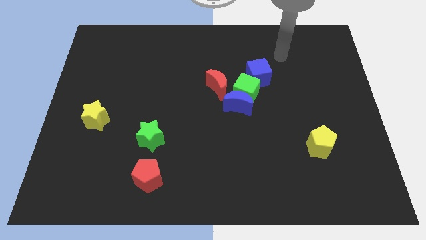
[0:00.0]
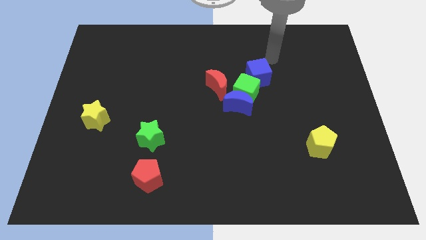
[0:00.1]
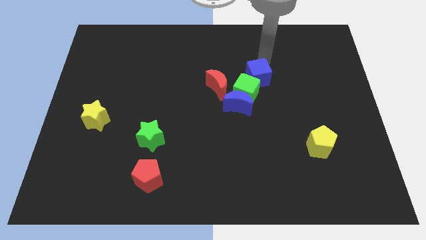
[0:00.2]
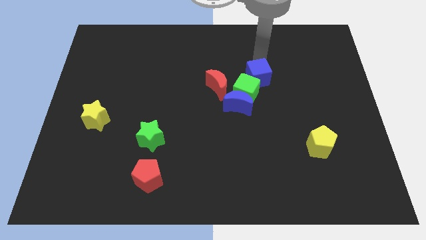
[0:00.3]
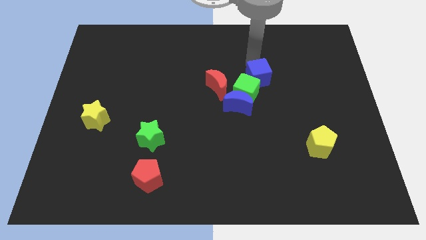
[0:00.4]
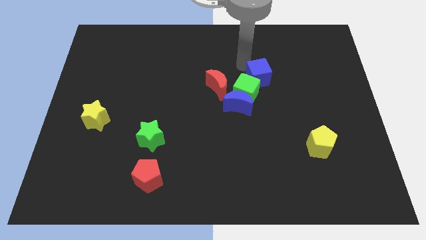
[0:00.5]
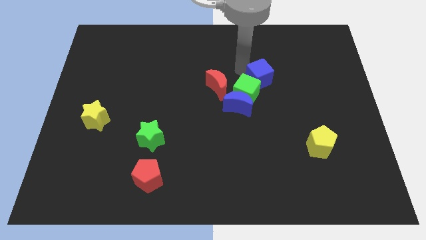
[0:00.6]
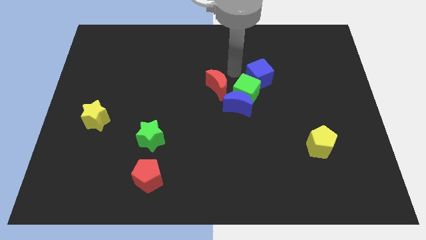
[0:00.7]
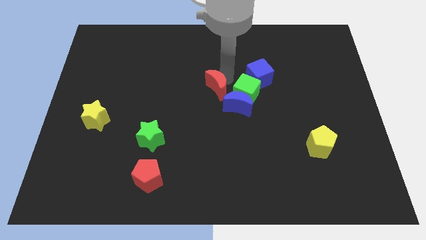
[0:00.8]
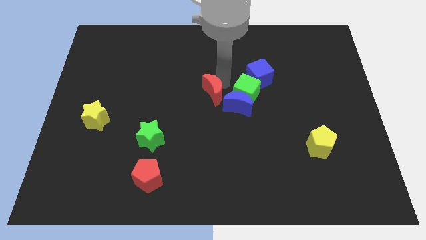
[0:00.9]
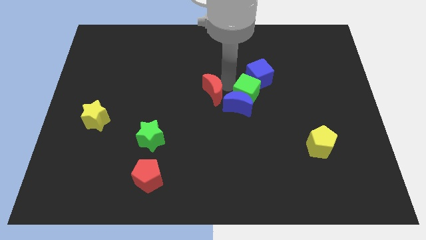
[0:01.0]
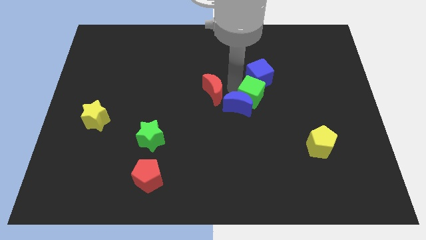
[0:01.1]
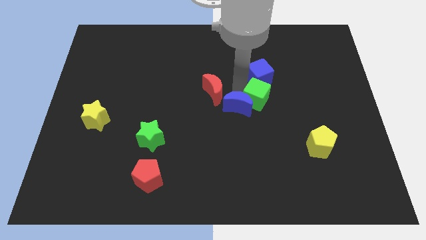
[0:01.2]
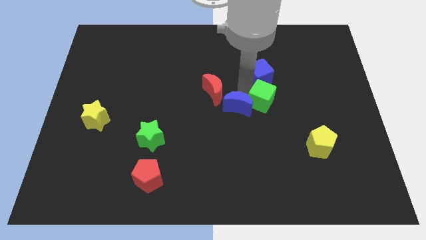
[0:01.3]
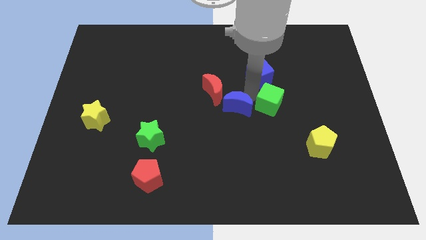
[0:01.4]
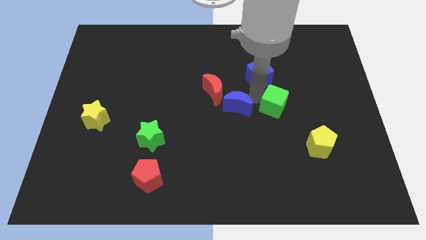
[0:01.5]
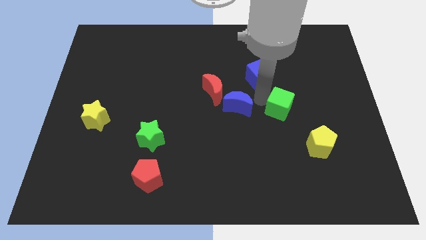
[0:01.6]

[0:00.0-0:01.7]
move the green cube away from the clump

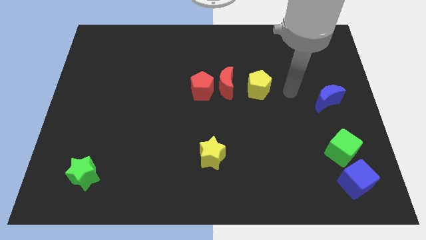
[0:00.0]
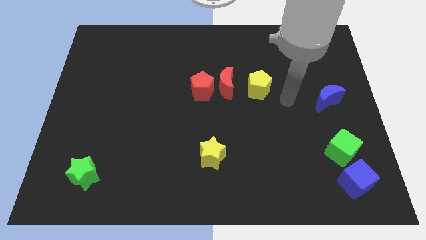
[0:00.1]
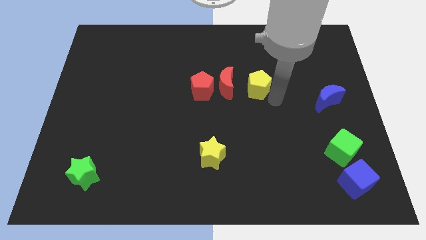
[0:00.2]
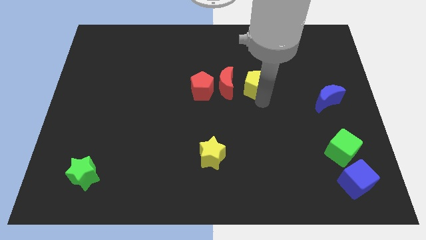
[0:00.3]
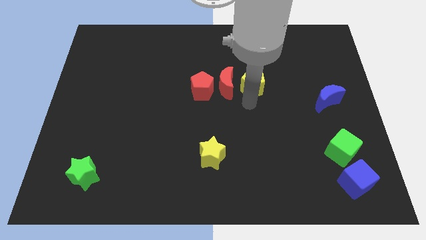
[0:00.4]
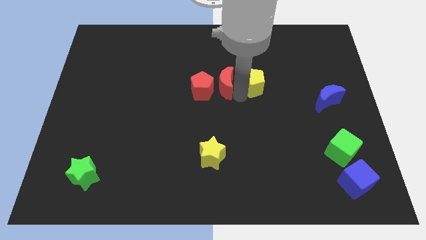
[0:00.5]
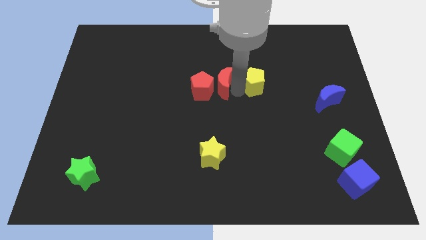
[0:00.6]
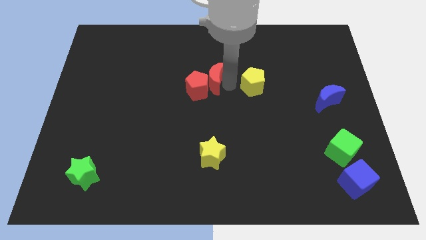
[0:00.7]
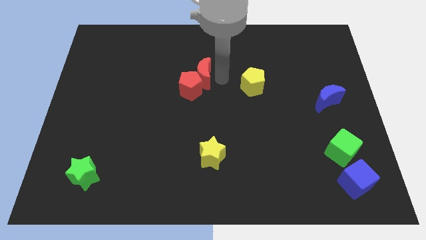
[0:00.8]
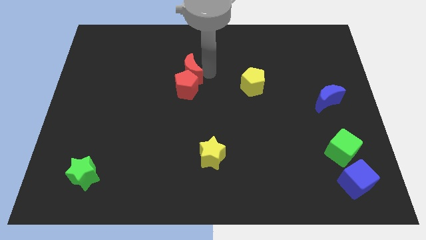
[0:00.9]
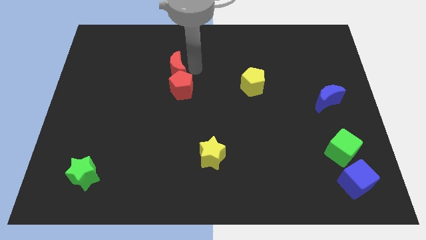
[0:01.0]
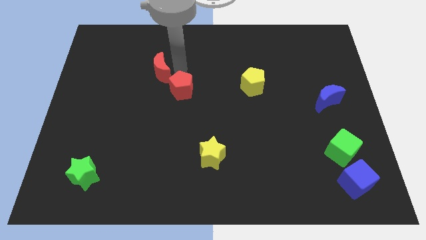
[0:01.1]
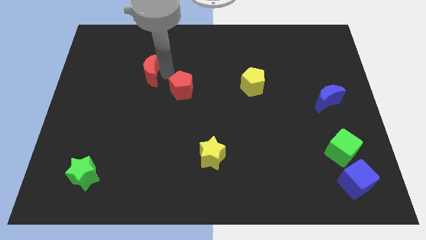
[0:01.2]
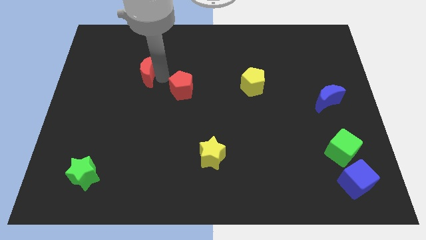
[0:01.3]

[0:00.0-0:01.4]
move the red pentagon away from the red moon

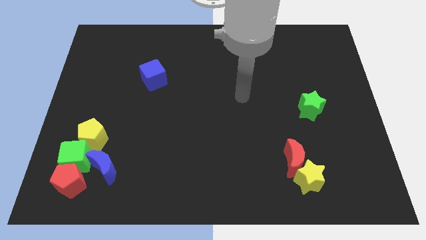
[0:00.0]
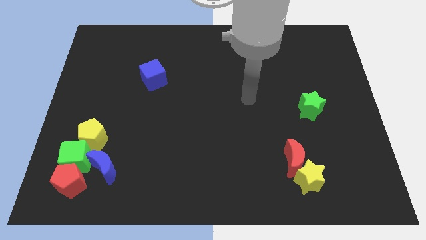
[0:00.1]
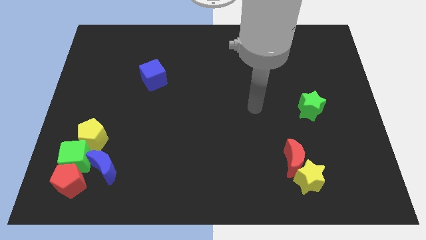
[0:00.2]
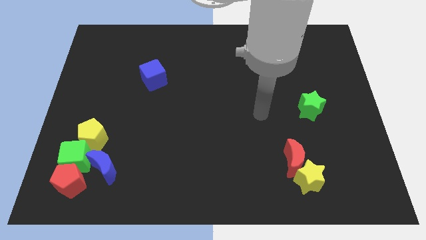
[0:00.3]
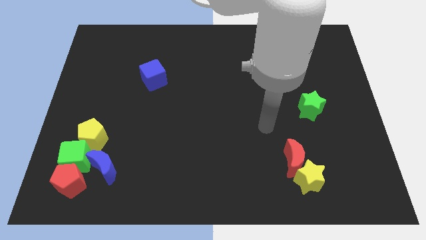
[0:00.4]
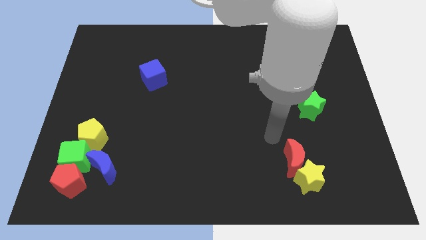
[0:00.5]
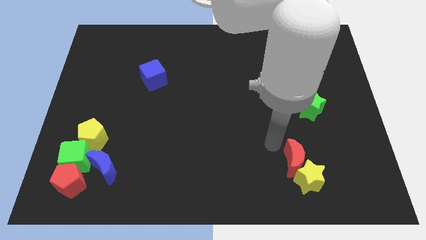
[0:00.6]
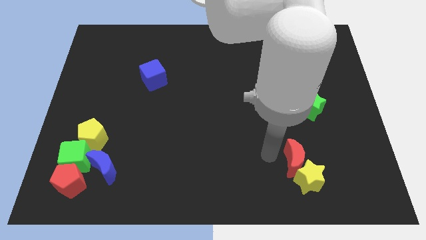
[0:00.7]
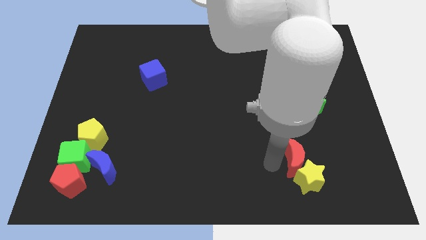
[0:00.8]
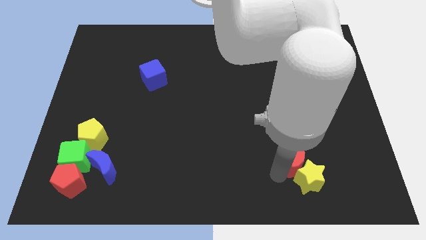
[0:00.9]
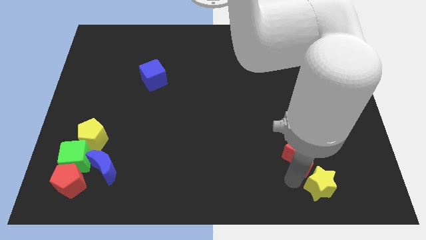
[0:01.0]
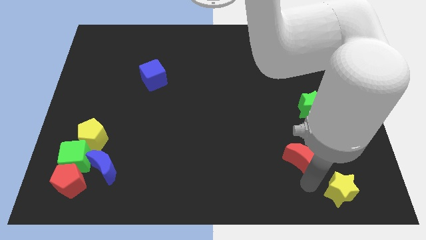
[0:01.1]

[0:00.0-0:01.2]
separate the red moon from the yellow star

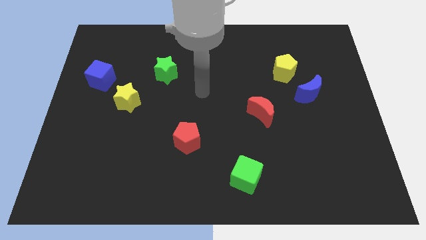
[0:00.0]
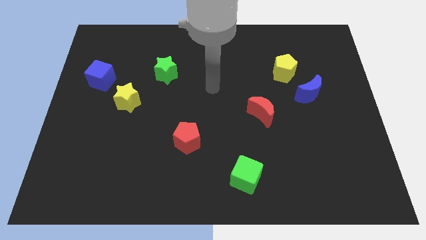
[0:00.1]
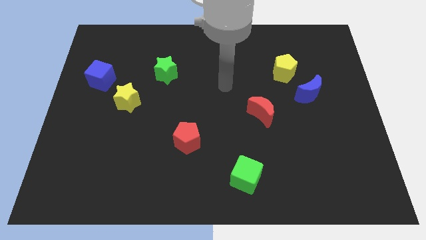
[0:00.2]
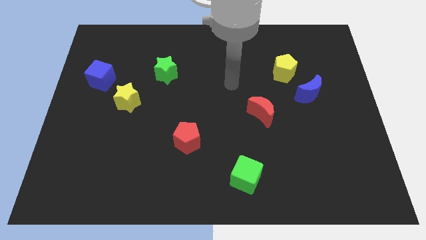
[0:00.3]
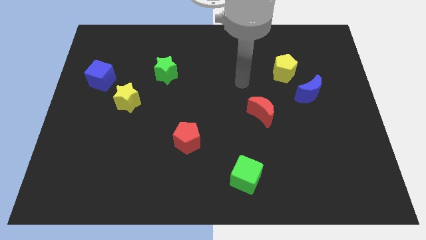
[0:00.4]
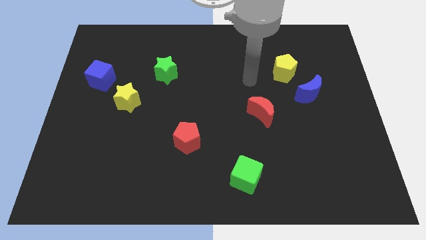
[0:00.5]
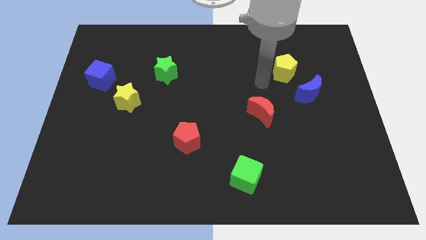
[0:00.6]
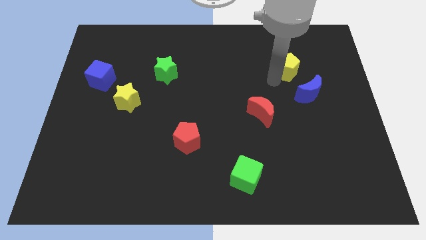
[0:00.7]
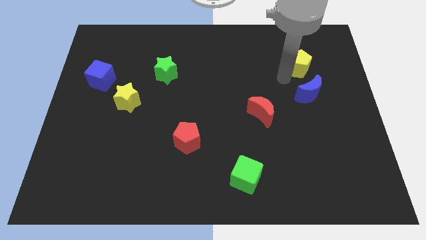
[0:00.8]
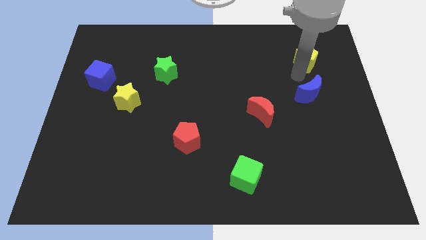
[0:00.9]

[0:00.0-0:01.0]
separate the blue moon from the yellow pentagon

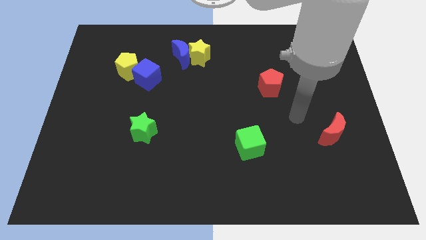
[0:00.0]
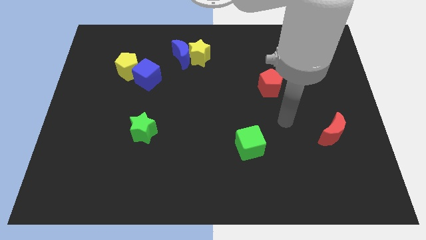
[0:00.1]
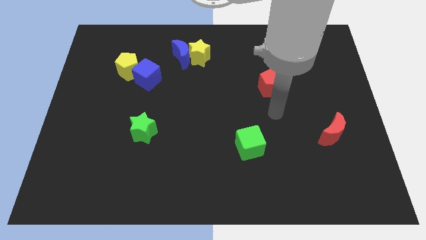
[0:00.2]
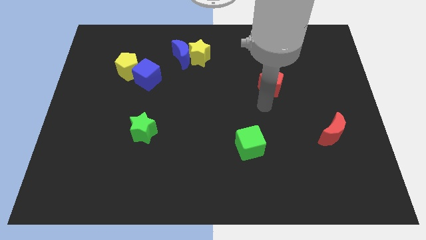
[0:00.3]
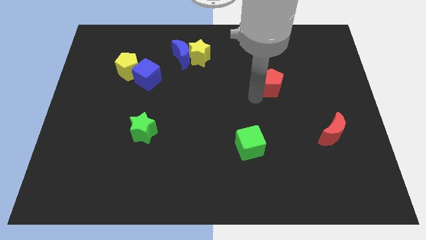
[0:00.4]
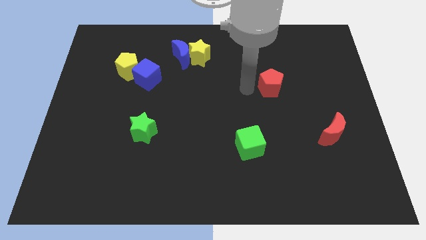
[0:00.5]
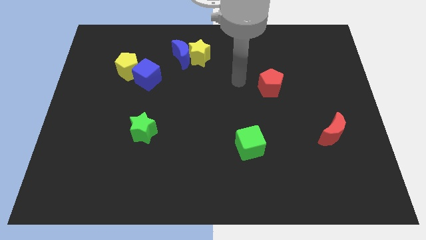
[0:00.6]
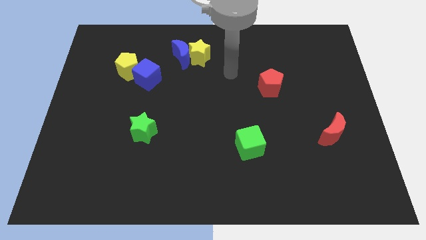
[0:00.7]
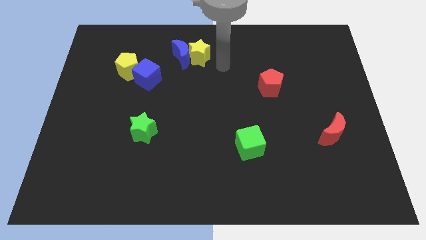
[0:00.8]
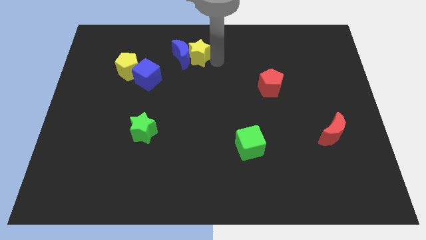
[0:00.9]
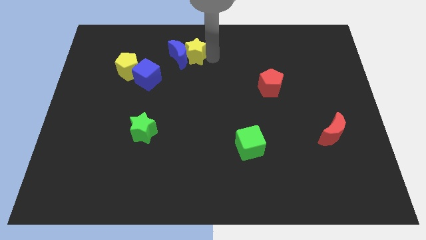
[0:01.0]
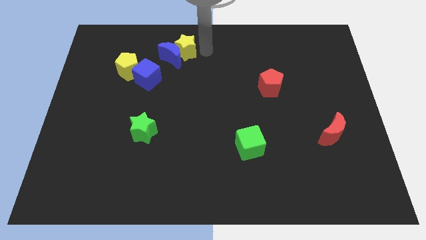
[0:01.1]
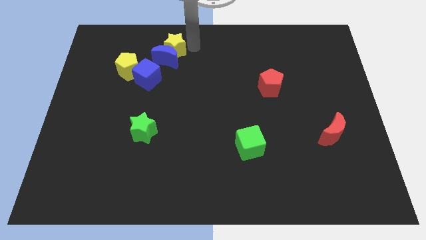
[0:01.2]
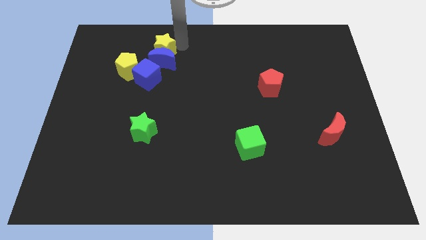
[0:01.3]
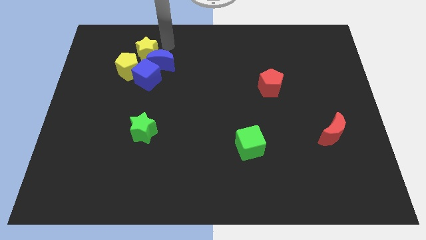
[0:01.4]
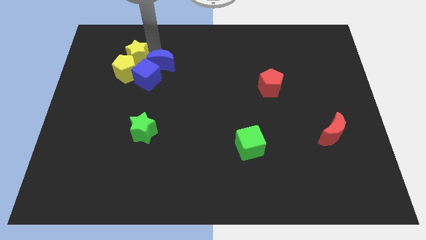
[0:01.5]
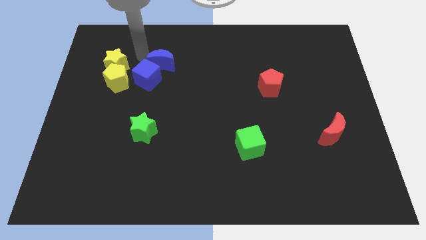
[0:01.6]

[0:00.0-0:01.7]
separate the blue moon from the yellow star

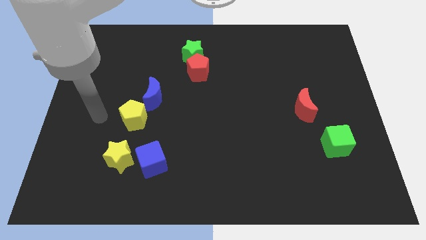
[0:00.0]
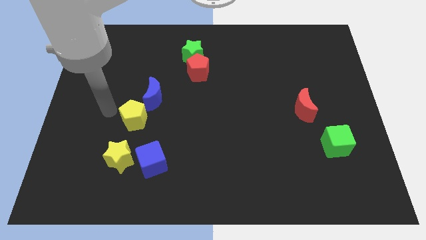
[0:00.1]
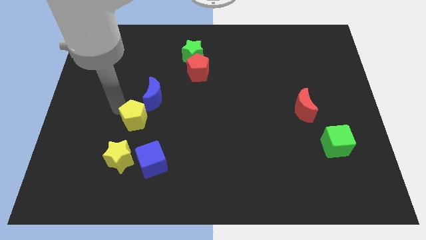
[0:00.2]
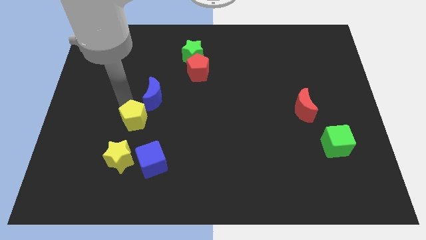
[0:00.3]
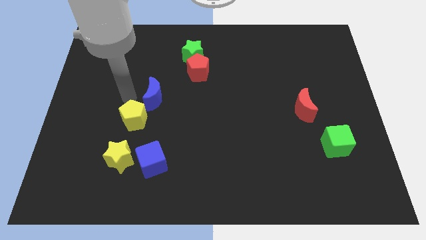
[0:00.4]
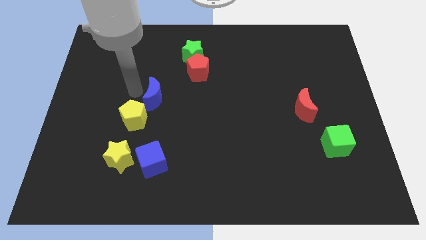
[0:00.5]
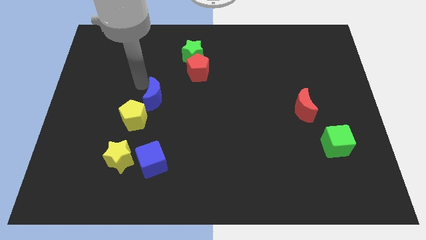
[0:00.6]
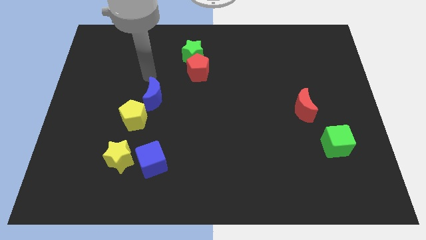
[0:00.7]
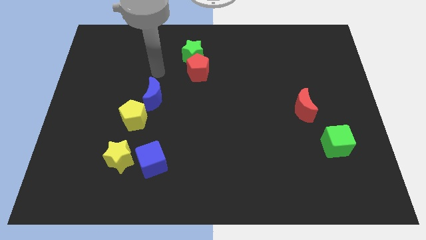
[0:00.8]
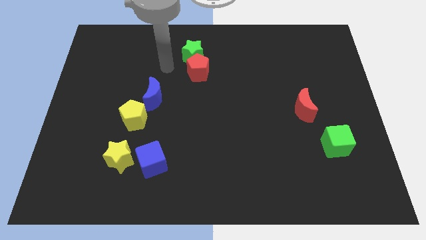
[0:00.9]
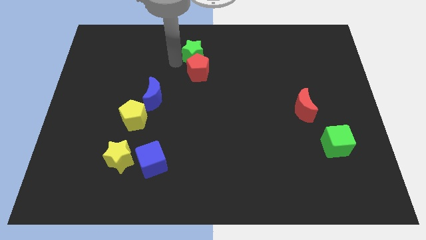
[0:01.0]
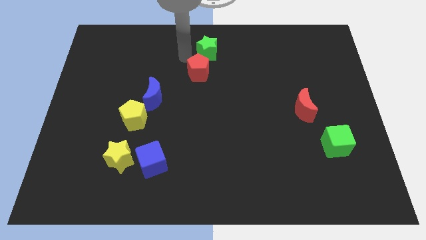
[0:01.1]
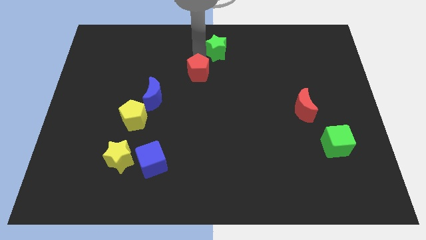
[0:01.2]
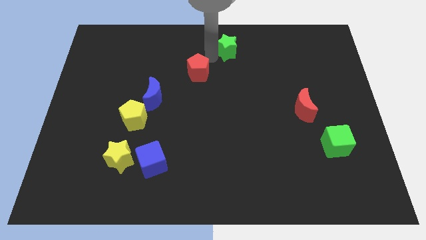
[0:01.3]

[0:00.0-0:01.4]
separate the red pentagon from the green star

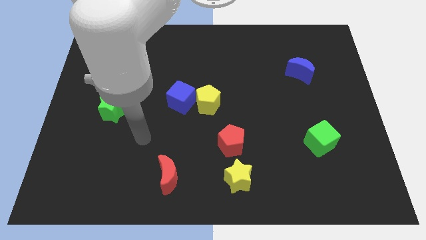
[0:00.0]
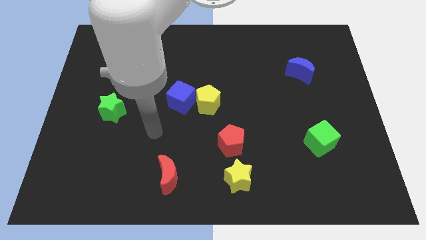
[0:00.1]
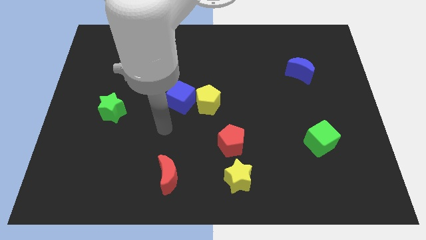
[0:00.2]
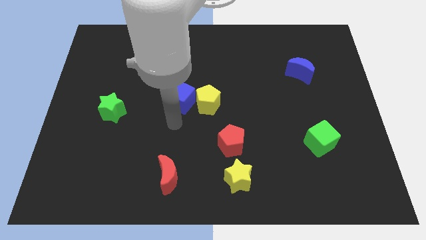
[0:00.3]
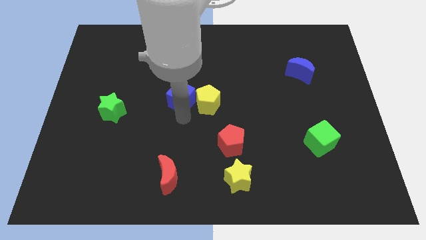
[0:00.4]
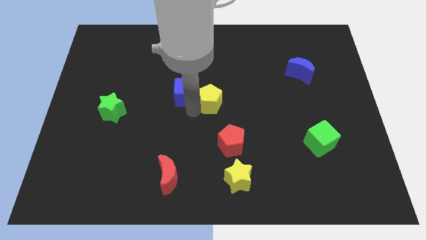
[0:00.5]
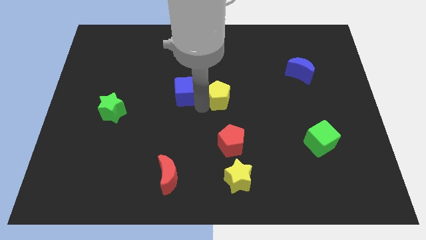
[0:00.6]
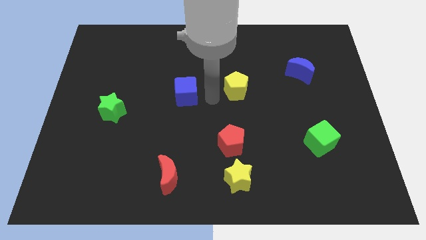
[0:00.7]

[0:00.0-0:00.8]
move the blue cube away from the yellow pentagon
